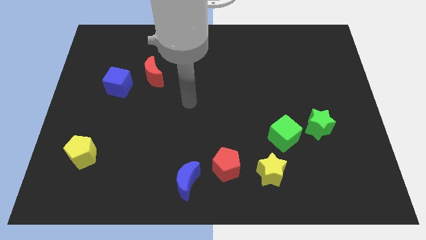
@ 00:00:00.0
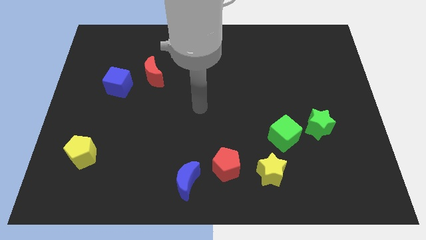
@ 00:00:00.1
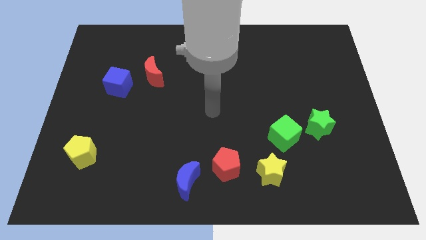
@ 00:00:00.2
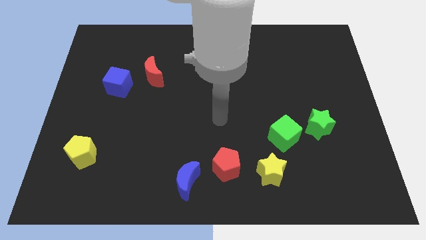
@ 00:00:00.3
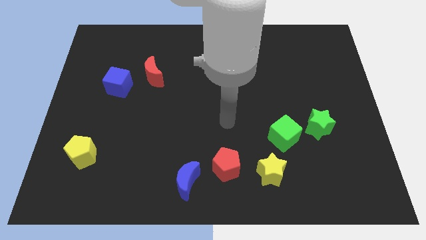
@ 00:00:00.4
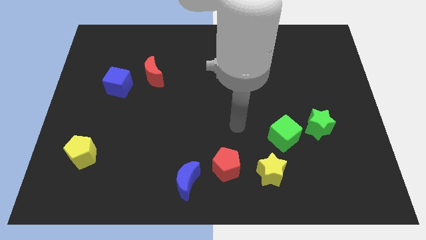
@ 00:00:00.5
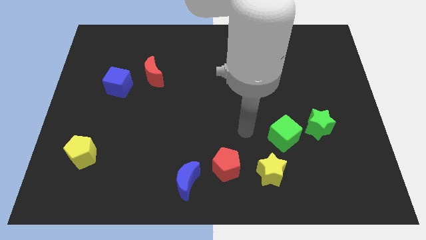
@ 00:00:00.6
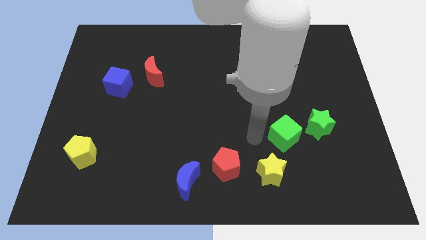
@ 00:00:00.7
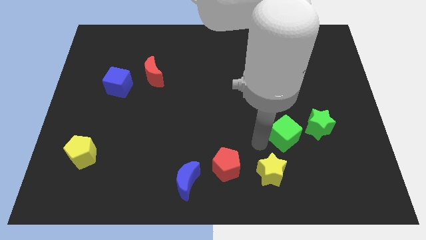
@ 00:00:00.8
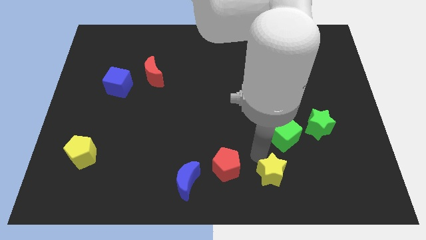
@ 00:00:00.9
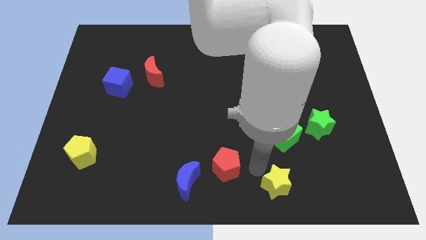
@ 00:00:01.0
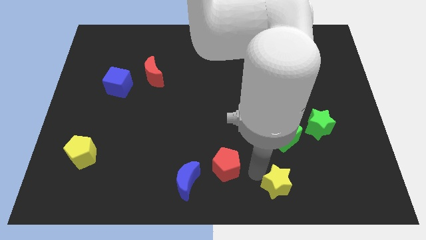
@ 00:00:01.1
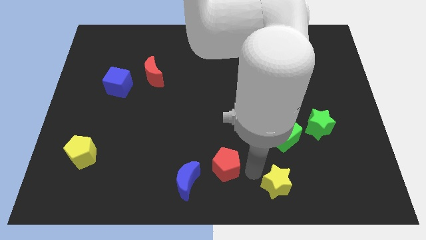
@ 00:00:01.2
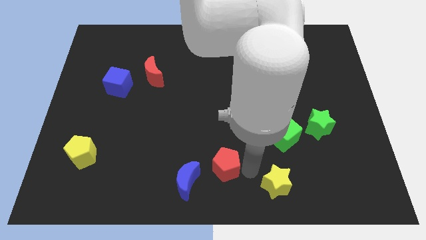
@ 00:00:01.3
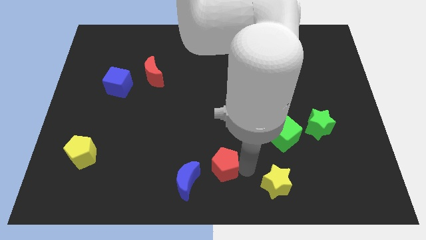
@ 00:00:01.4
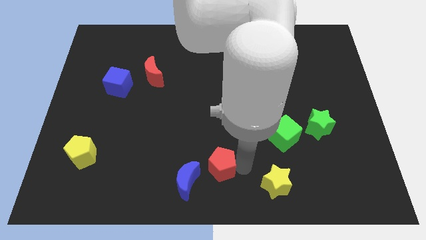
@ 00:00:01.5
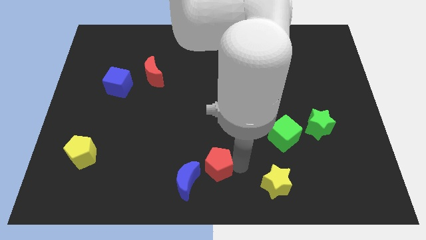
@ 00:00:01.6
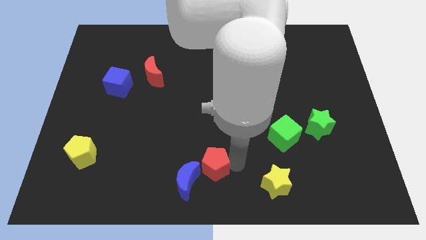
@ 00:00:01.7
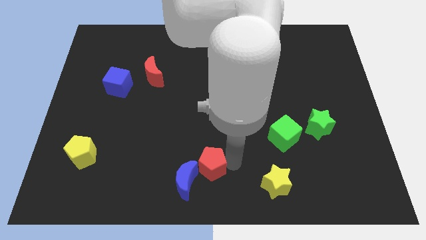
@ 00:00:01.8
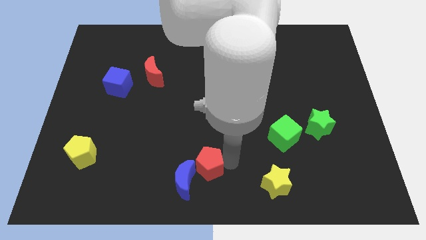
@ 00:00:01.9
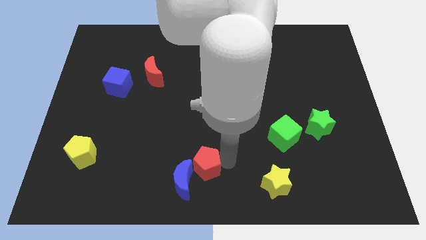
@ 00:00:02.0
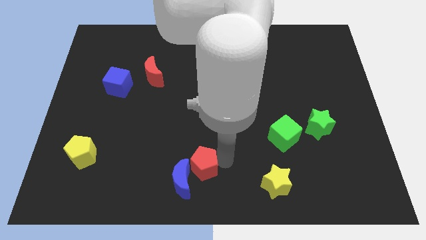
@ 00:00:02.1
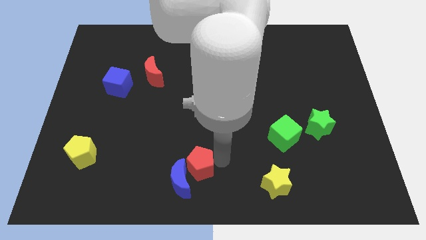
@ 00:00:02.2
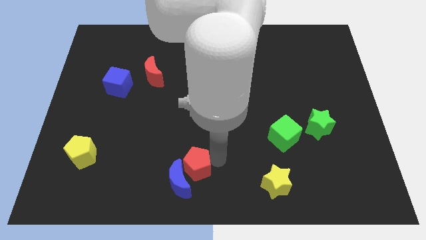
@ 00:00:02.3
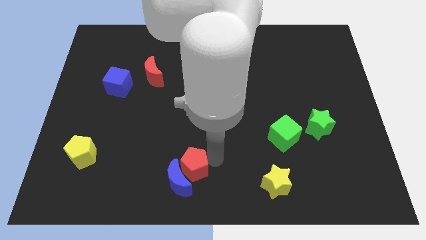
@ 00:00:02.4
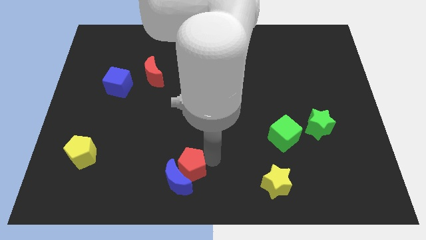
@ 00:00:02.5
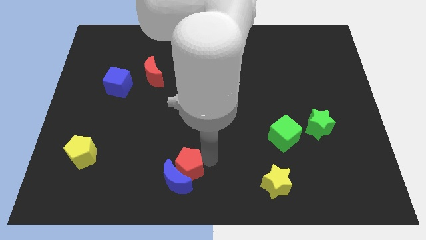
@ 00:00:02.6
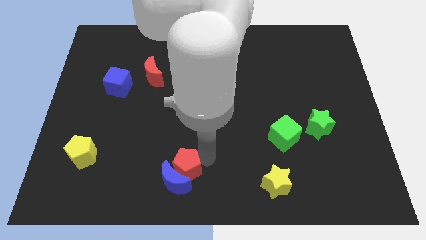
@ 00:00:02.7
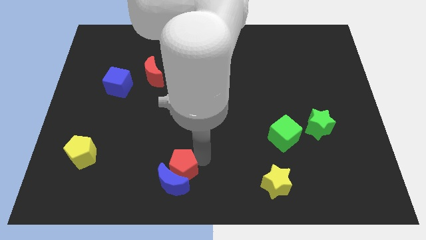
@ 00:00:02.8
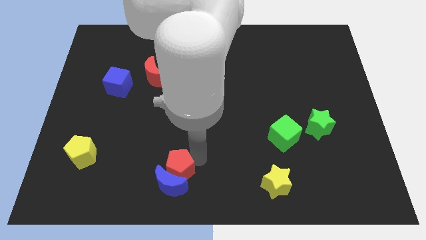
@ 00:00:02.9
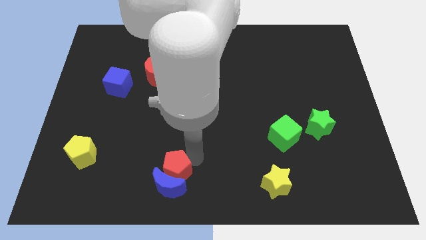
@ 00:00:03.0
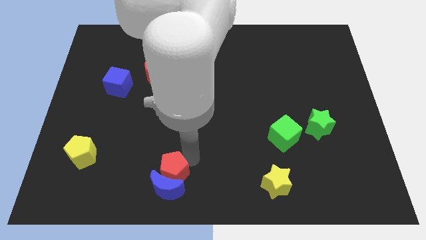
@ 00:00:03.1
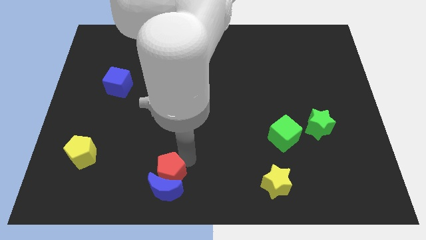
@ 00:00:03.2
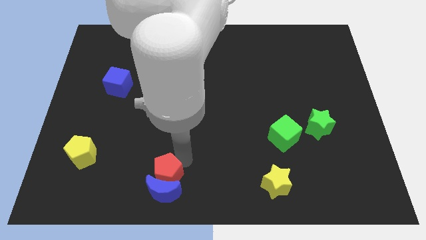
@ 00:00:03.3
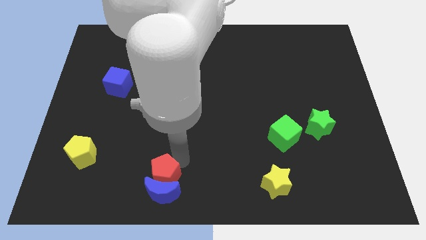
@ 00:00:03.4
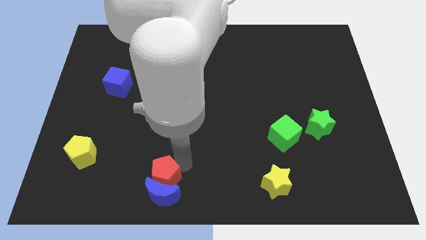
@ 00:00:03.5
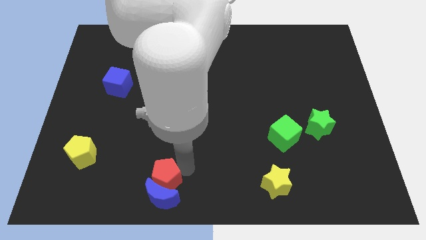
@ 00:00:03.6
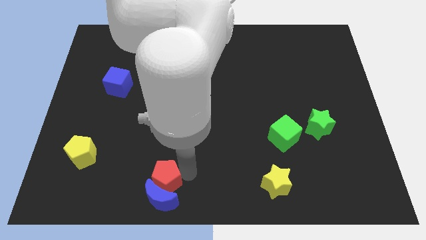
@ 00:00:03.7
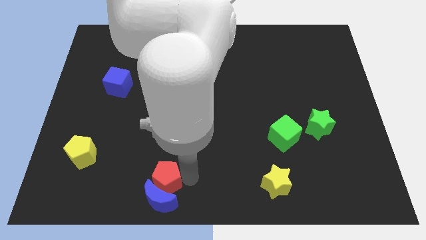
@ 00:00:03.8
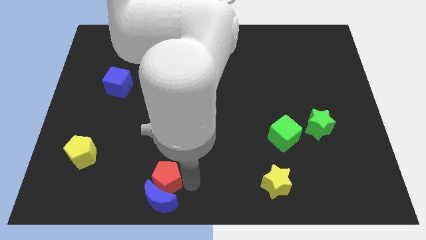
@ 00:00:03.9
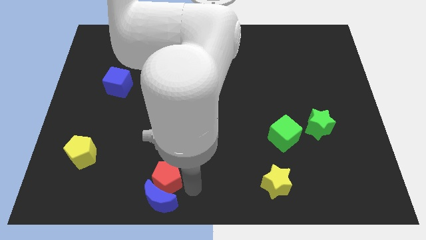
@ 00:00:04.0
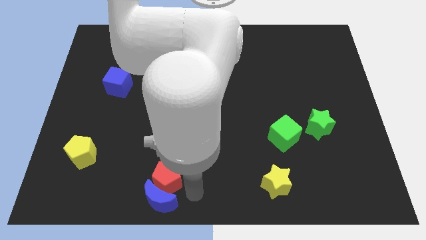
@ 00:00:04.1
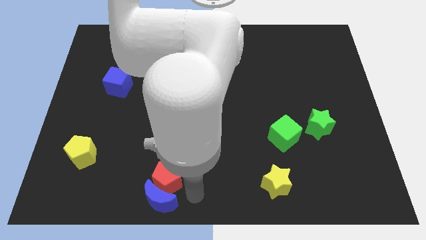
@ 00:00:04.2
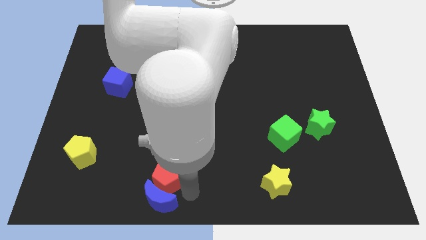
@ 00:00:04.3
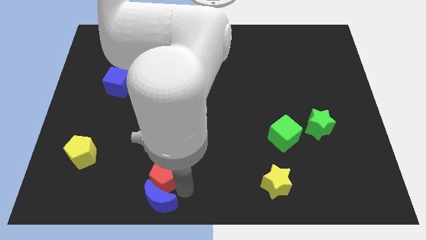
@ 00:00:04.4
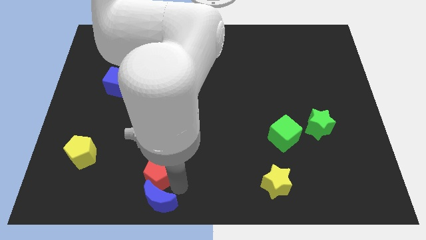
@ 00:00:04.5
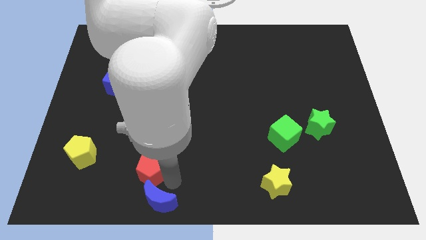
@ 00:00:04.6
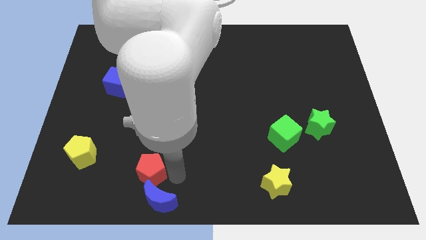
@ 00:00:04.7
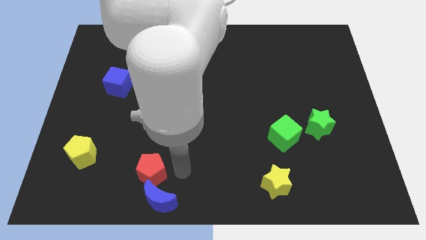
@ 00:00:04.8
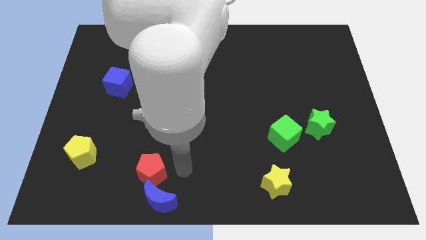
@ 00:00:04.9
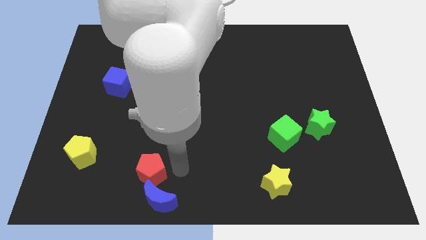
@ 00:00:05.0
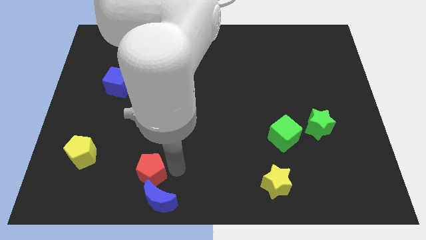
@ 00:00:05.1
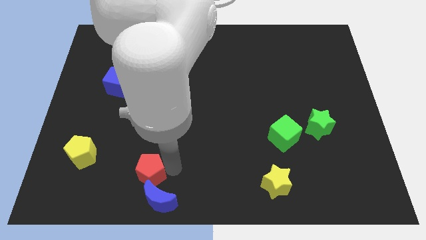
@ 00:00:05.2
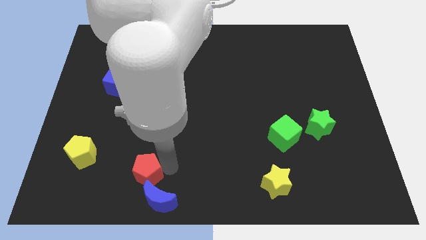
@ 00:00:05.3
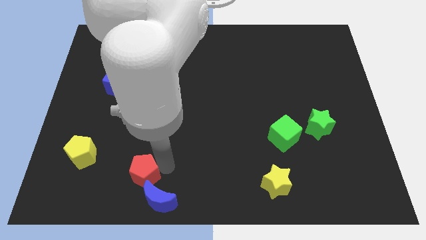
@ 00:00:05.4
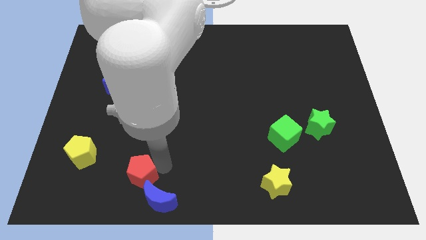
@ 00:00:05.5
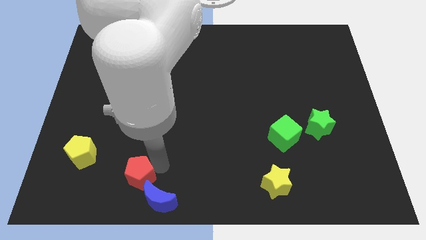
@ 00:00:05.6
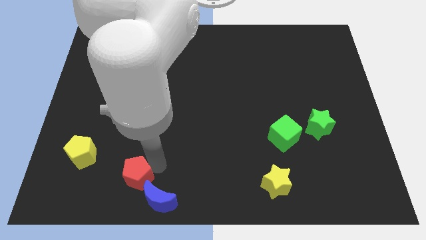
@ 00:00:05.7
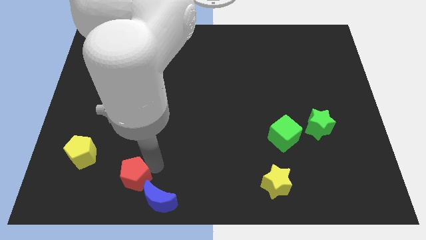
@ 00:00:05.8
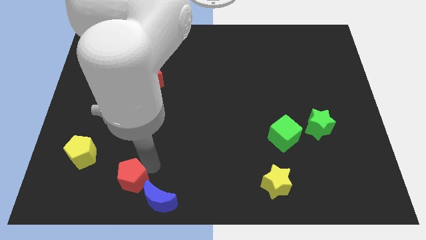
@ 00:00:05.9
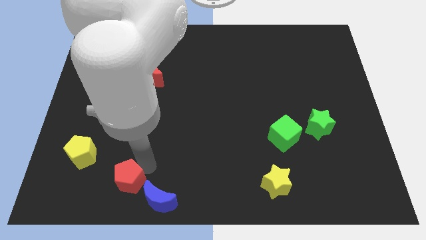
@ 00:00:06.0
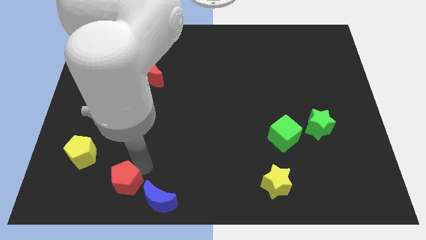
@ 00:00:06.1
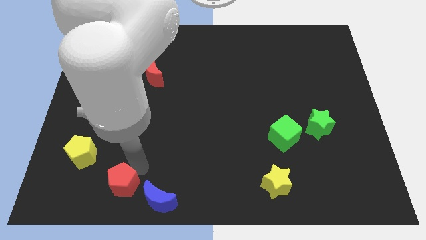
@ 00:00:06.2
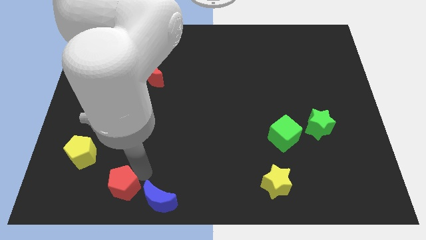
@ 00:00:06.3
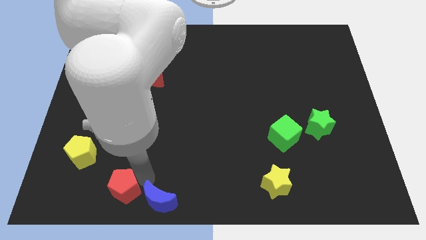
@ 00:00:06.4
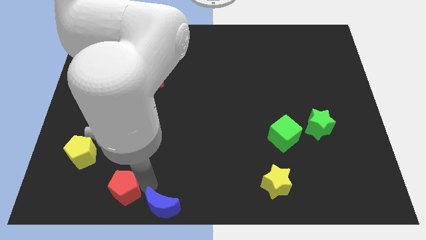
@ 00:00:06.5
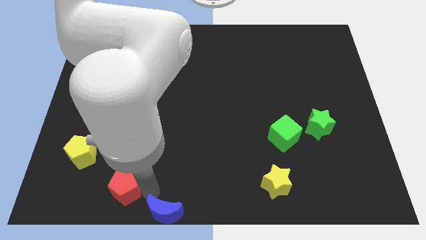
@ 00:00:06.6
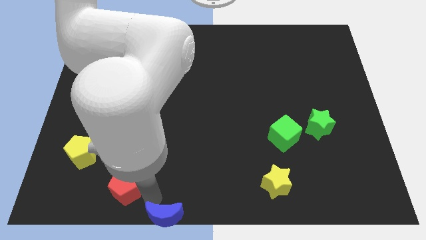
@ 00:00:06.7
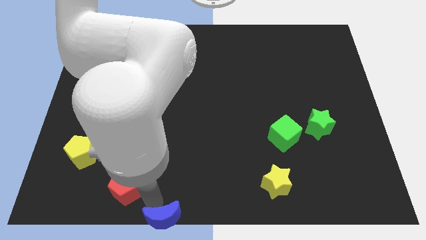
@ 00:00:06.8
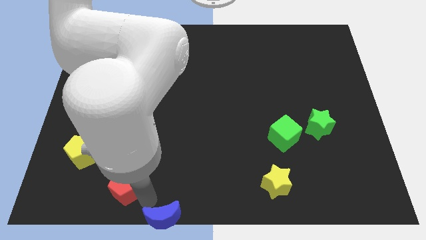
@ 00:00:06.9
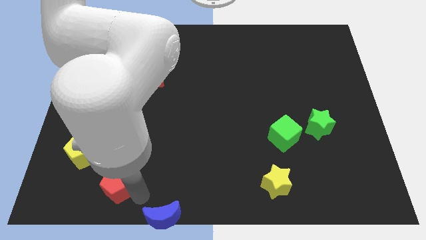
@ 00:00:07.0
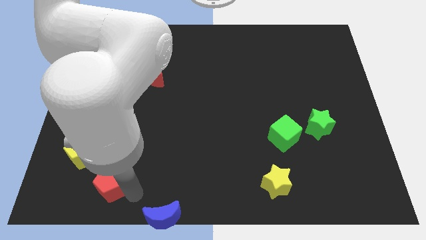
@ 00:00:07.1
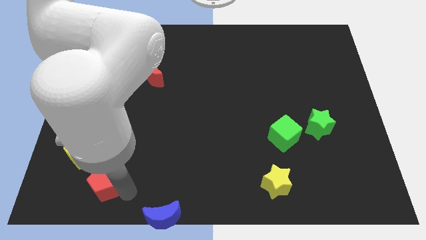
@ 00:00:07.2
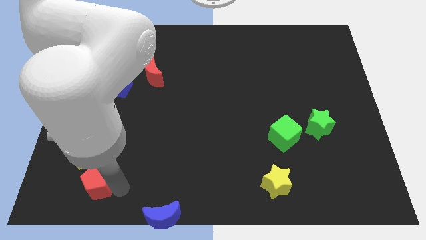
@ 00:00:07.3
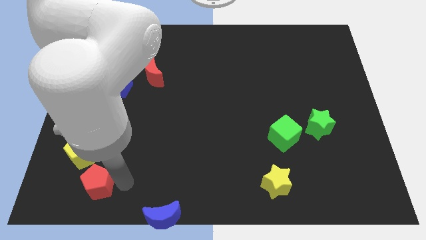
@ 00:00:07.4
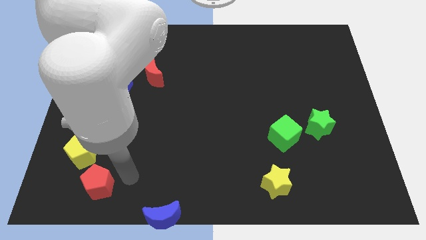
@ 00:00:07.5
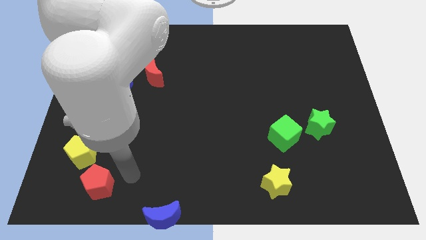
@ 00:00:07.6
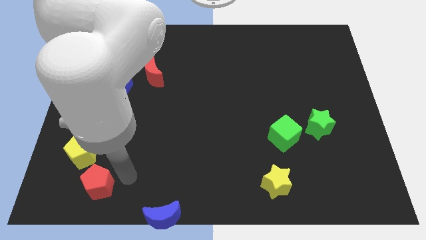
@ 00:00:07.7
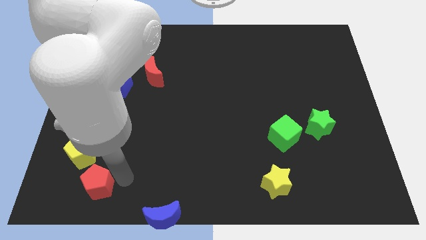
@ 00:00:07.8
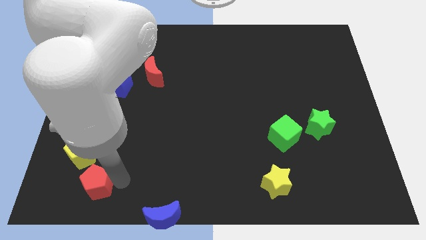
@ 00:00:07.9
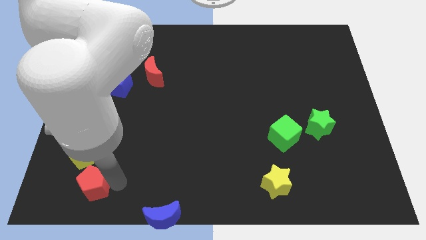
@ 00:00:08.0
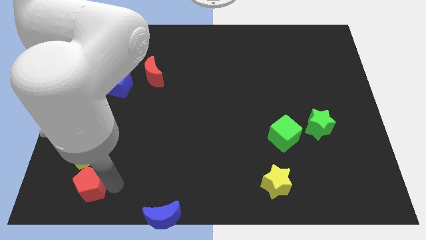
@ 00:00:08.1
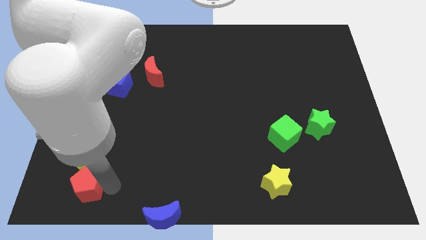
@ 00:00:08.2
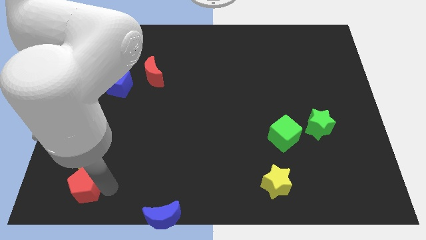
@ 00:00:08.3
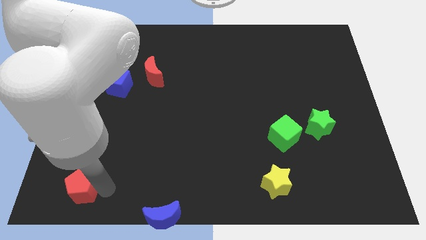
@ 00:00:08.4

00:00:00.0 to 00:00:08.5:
put the red pentagon to the lower left corner
